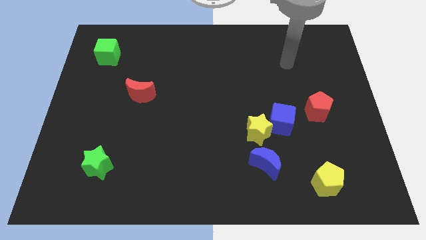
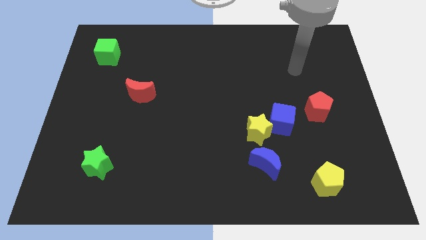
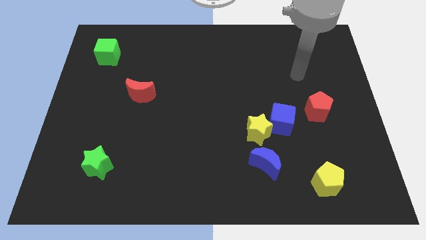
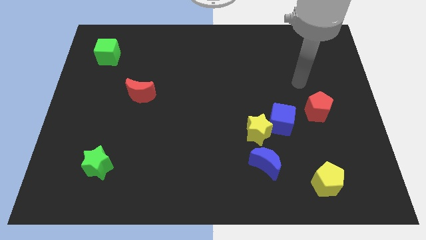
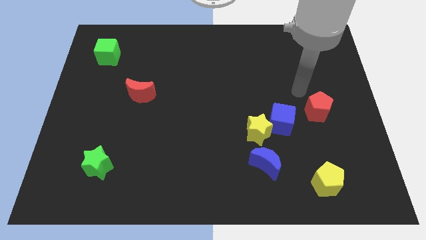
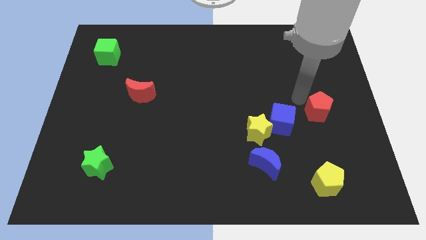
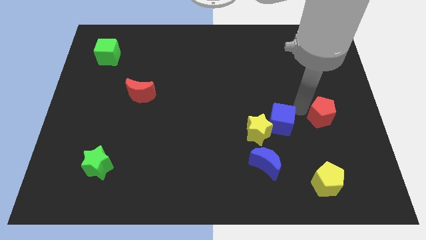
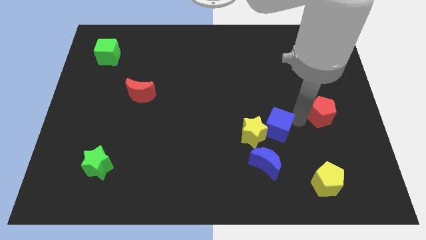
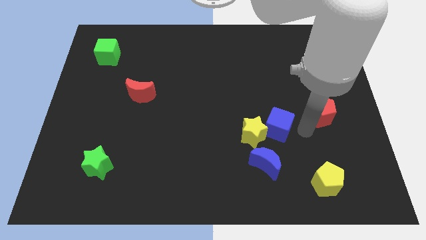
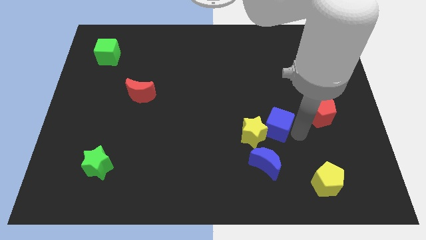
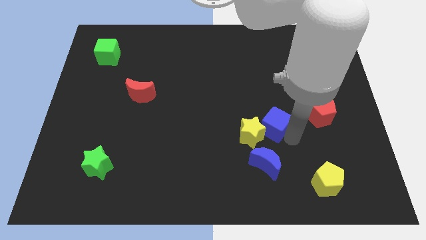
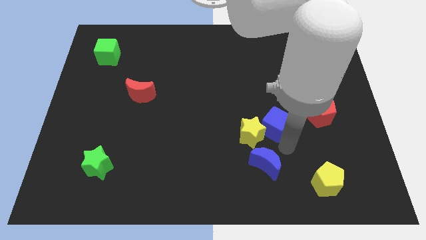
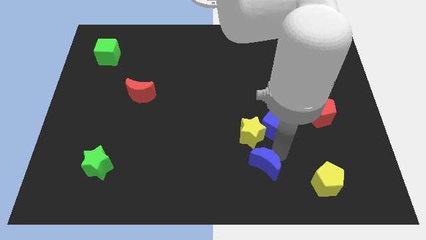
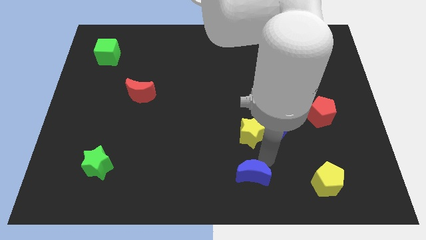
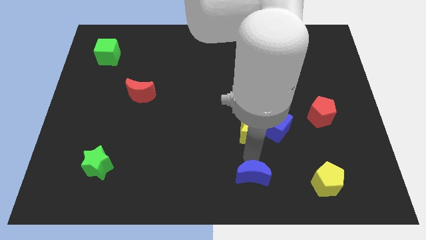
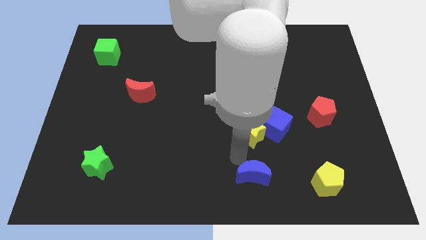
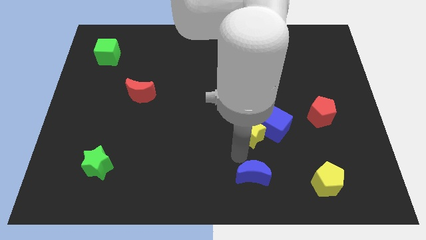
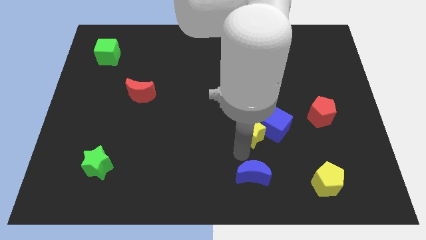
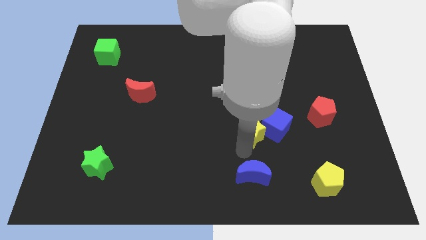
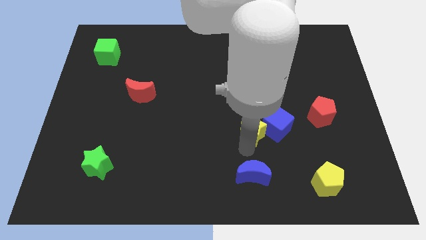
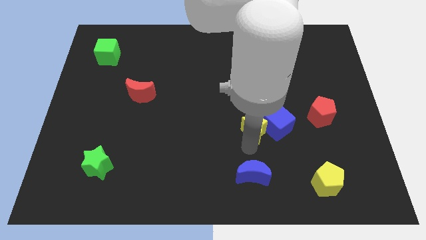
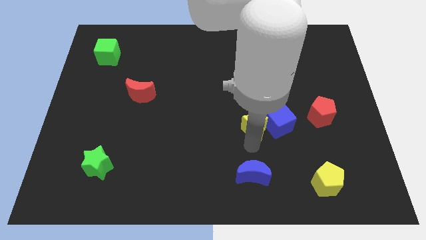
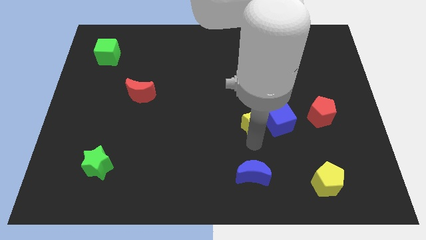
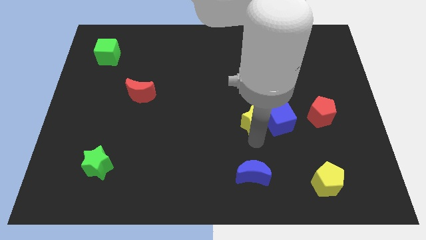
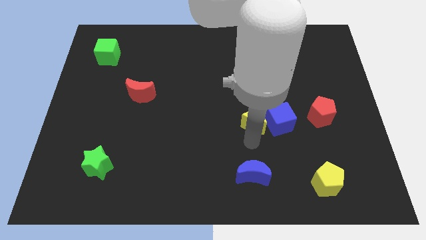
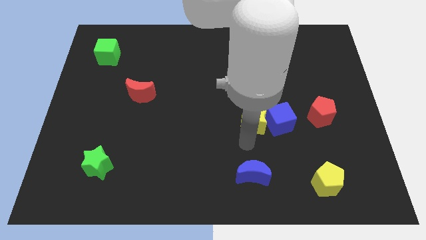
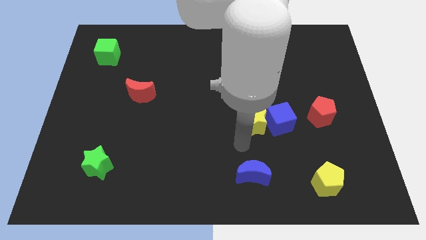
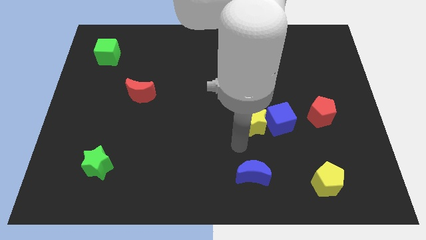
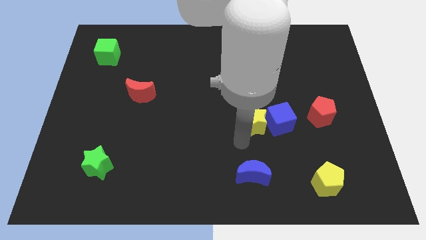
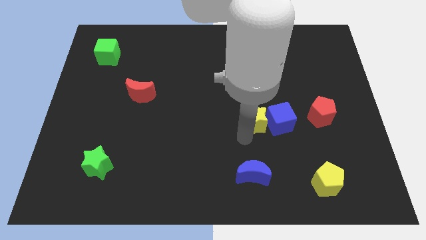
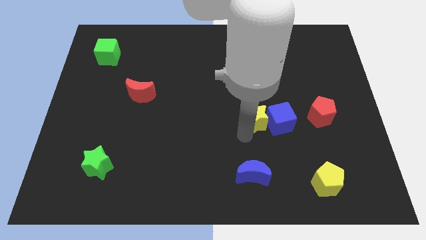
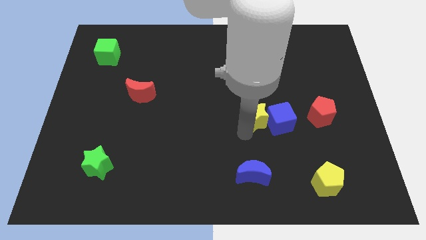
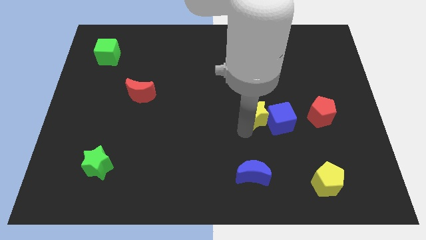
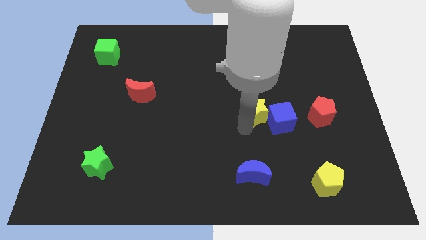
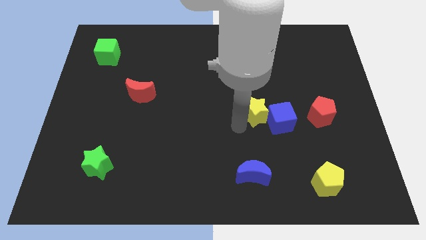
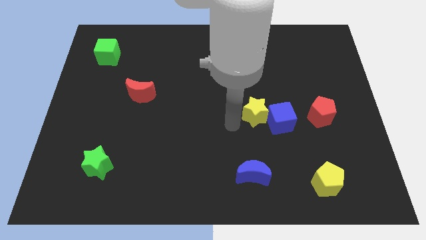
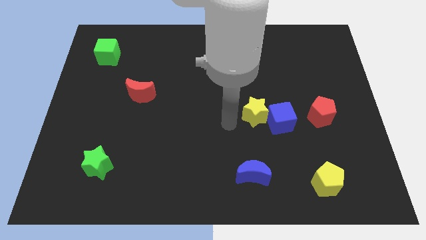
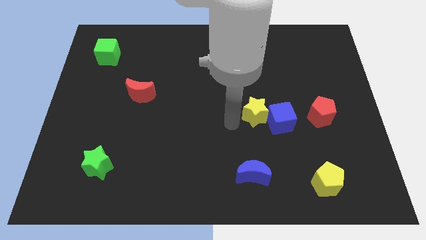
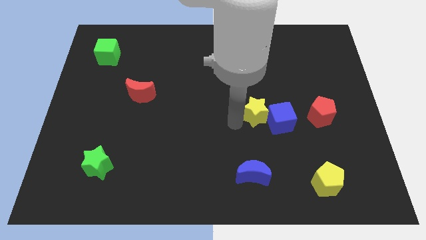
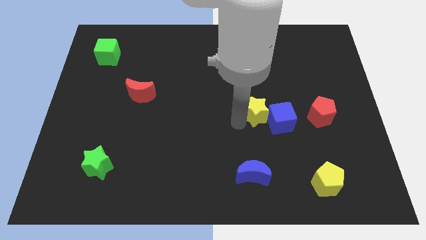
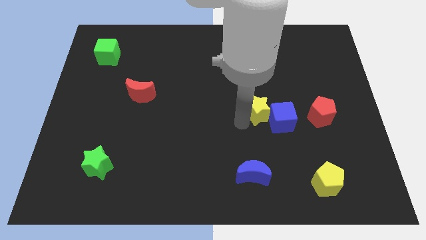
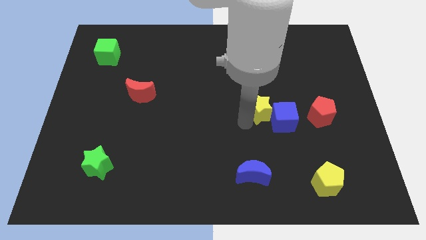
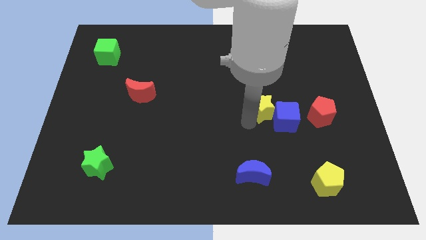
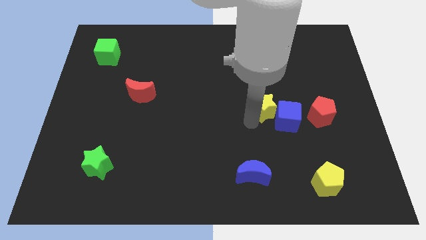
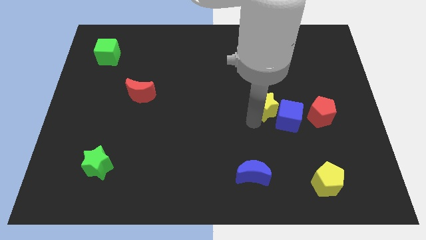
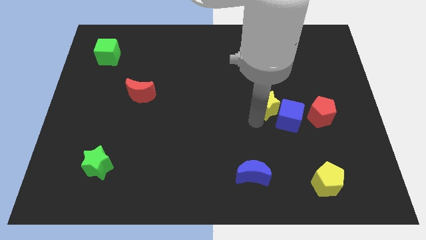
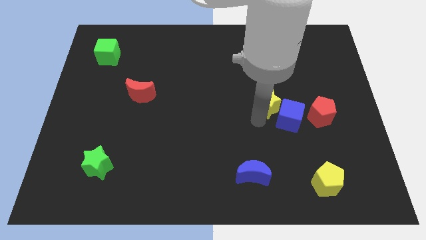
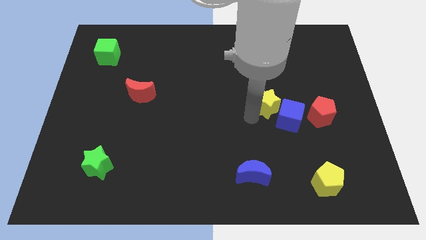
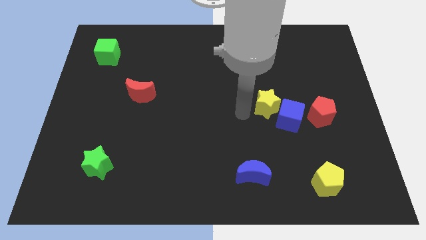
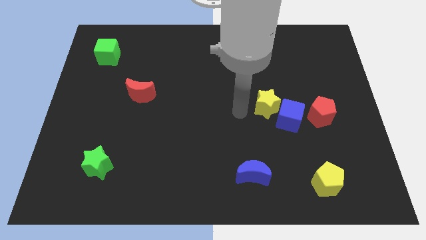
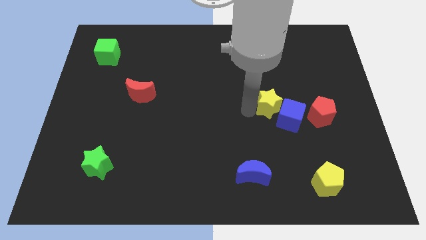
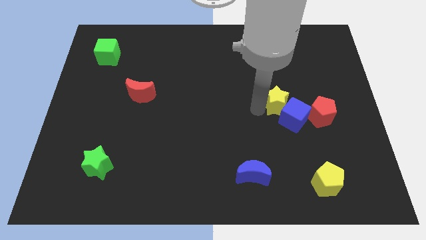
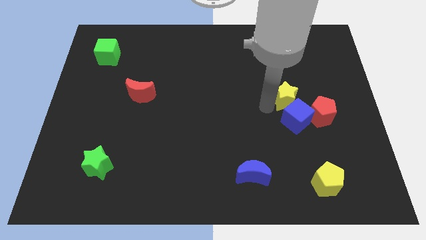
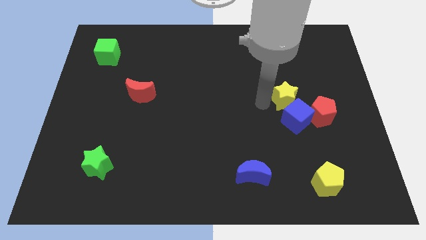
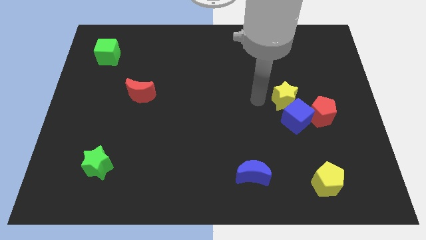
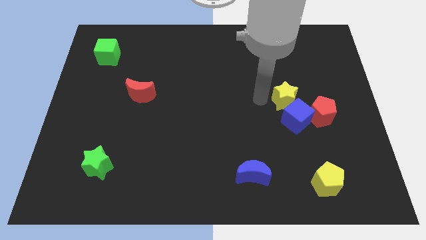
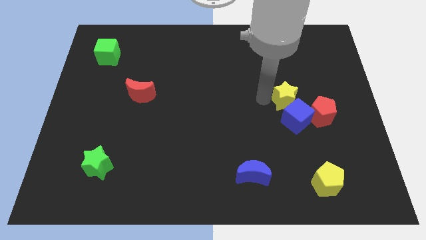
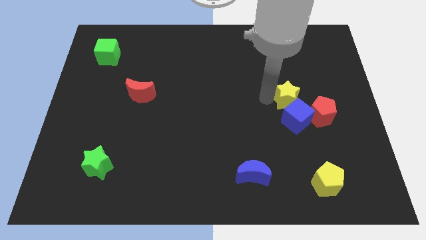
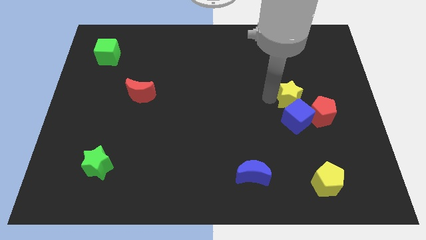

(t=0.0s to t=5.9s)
move the yellow star diagonally up and to the right of the blue cube

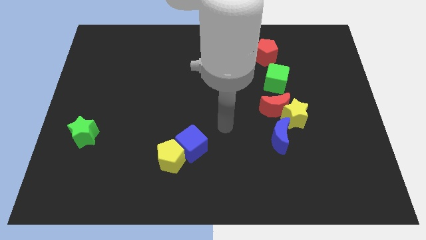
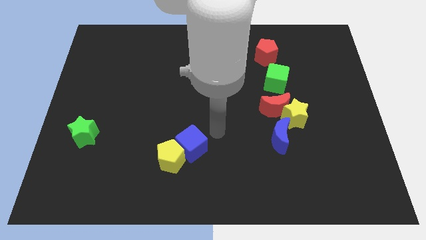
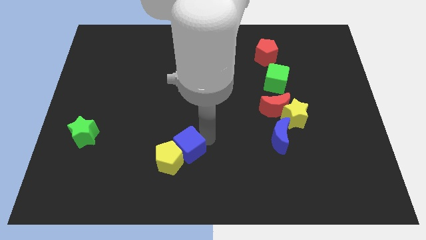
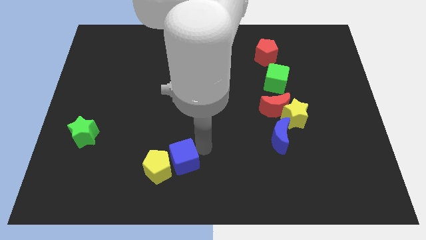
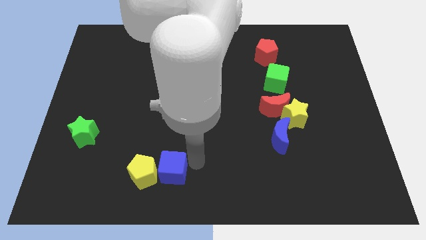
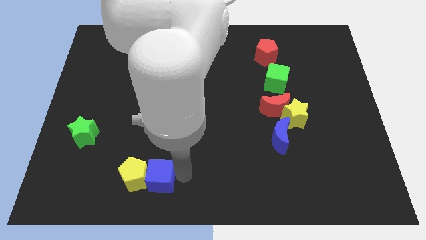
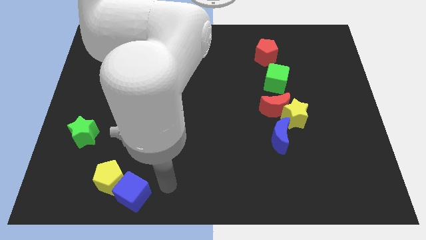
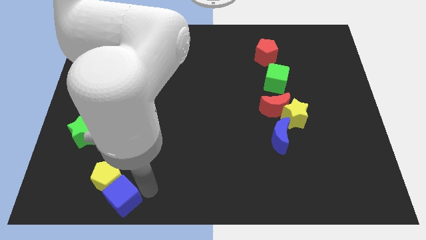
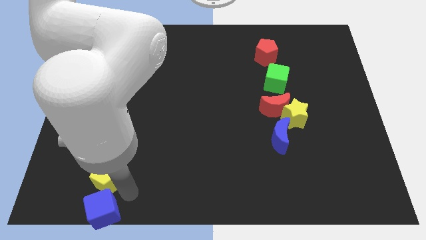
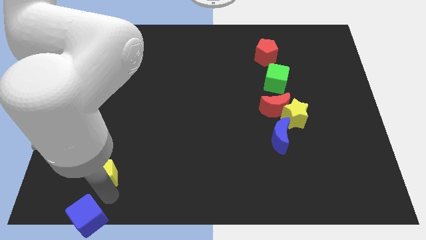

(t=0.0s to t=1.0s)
slide the yellow pentagon to the bottom right of the green star
